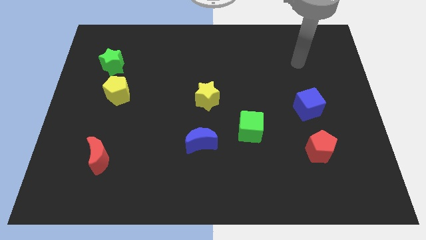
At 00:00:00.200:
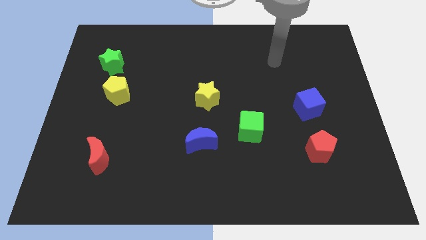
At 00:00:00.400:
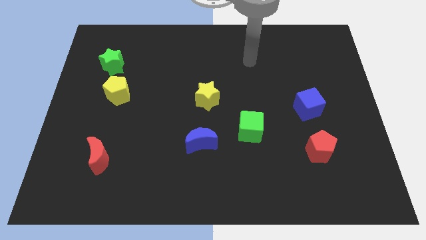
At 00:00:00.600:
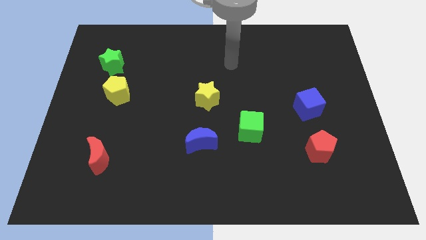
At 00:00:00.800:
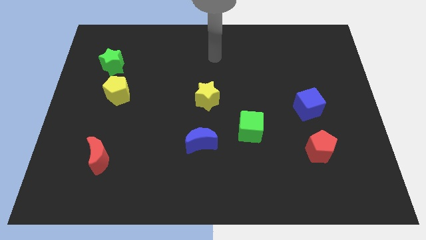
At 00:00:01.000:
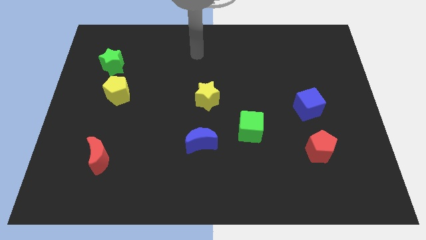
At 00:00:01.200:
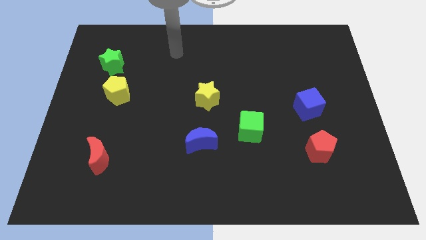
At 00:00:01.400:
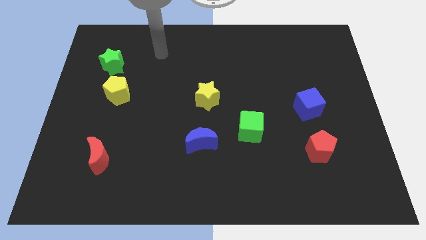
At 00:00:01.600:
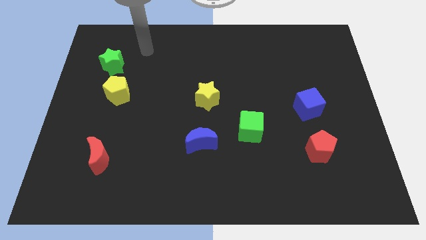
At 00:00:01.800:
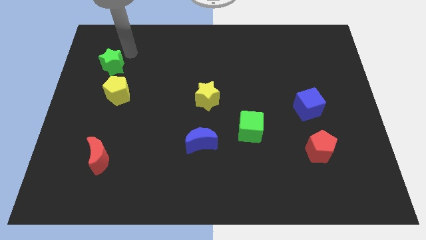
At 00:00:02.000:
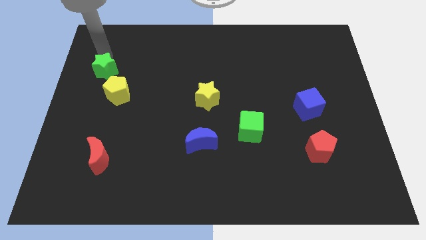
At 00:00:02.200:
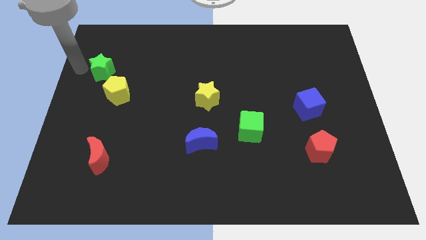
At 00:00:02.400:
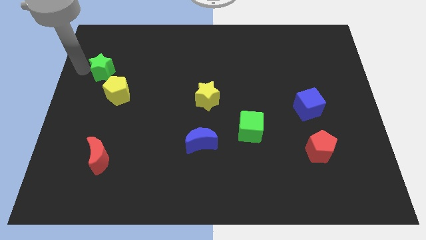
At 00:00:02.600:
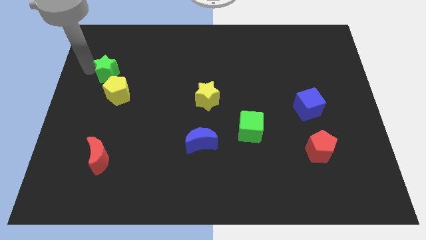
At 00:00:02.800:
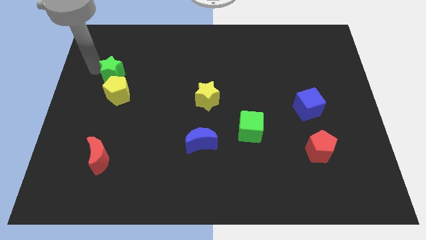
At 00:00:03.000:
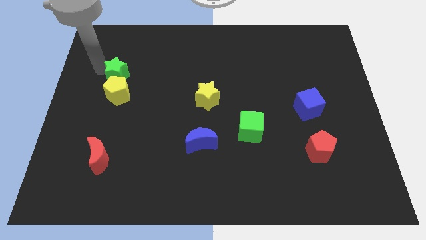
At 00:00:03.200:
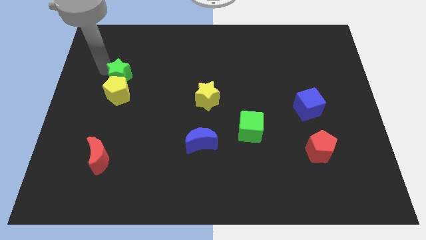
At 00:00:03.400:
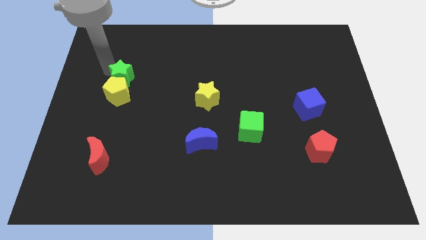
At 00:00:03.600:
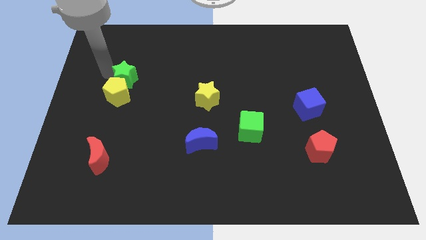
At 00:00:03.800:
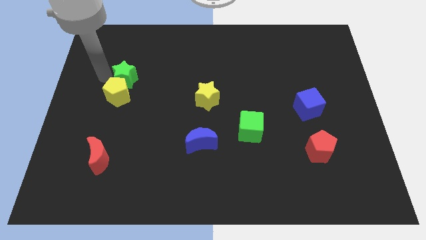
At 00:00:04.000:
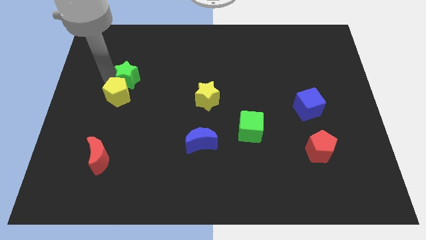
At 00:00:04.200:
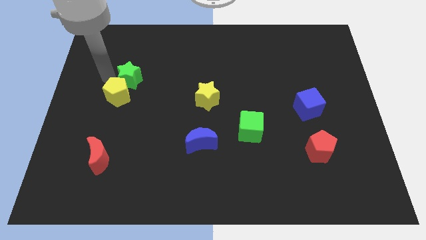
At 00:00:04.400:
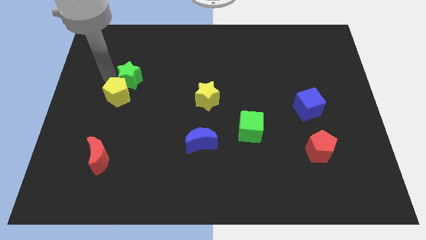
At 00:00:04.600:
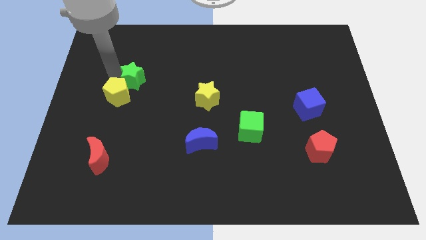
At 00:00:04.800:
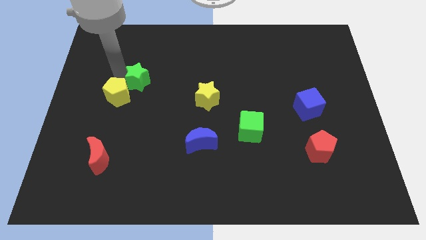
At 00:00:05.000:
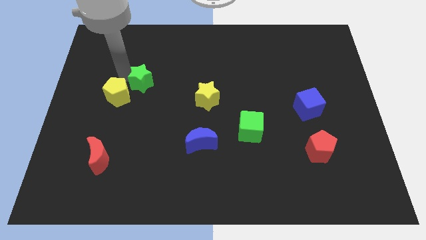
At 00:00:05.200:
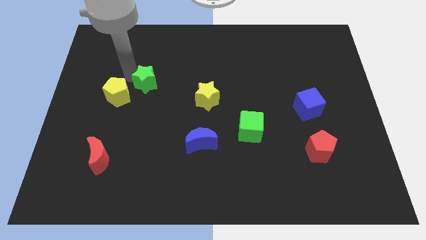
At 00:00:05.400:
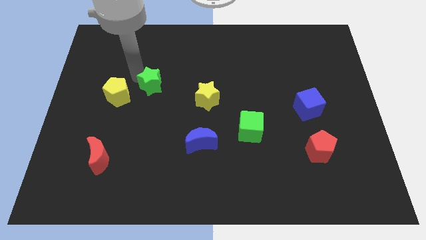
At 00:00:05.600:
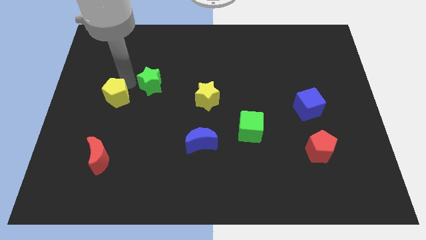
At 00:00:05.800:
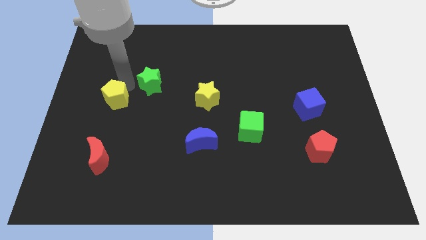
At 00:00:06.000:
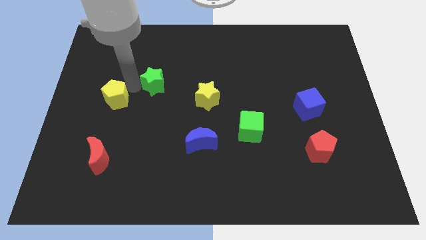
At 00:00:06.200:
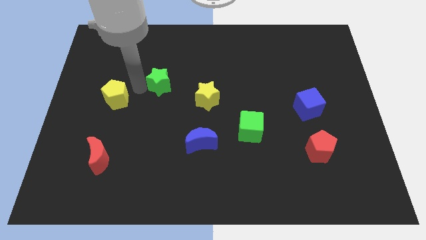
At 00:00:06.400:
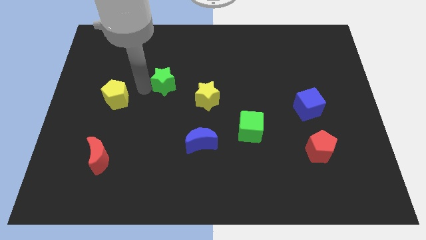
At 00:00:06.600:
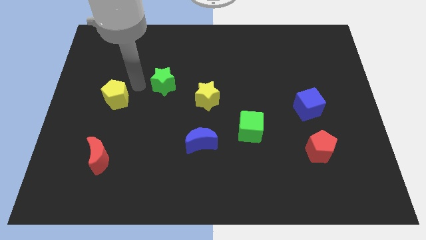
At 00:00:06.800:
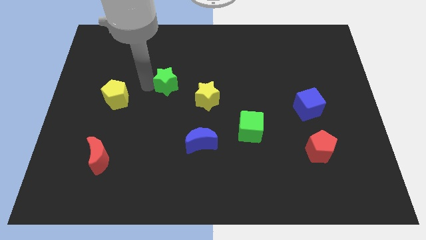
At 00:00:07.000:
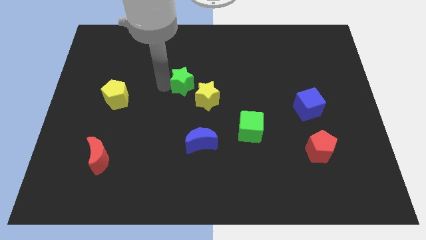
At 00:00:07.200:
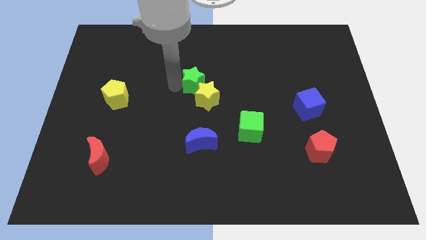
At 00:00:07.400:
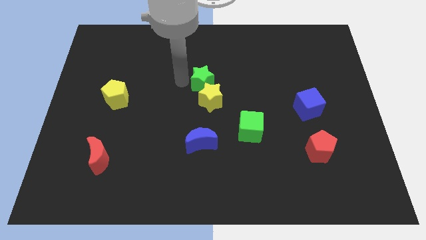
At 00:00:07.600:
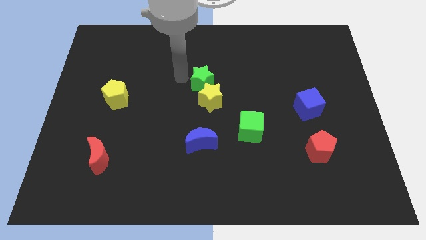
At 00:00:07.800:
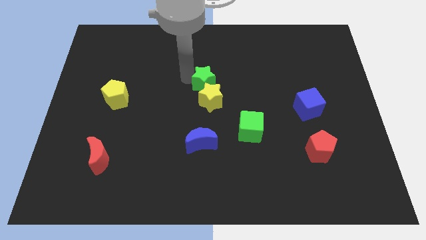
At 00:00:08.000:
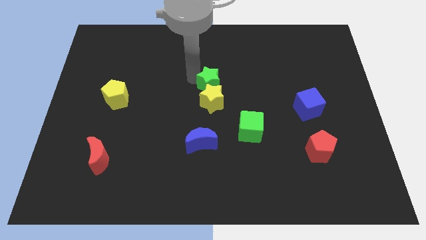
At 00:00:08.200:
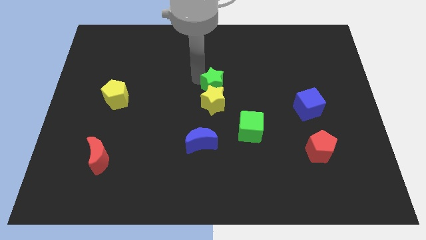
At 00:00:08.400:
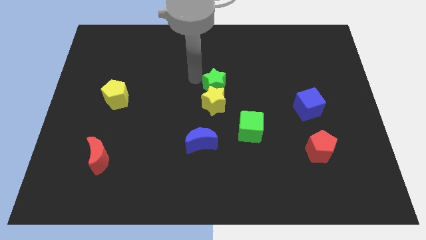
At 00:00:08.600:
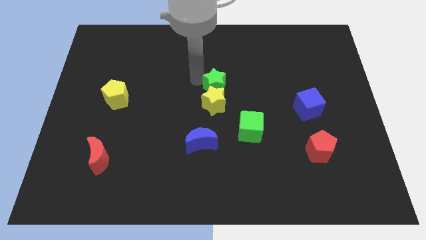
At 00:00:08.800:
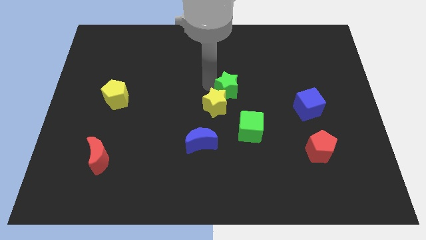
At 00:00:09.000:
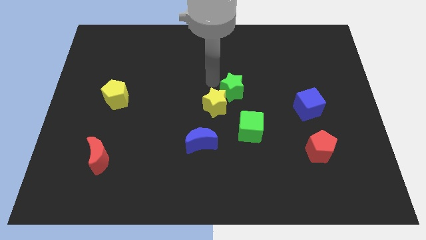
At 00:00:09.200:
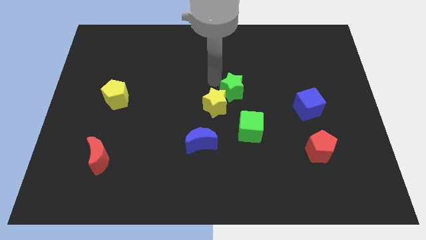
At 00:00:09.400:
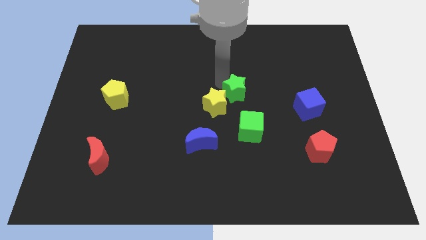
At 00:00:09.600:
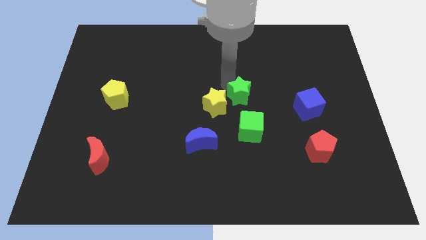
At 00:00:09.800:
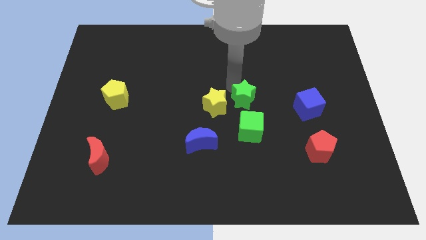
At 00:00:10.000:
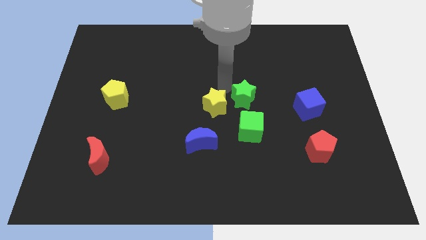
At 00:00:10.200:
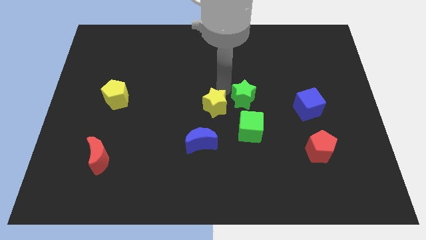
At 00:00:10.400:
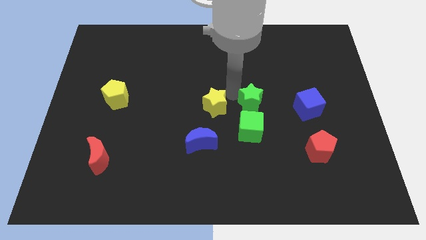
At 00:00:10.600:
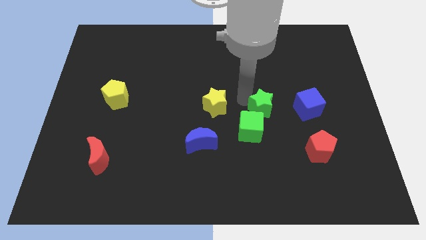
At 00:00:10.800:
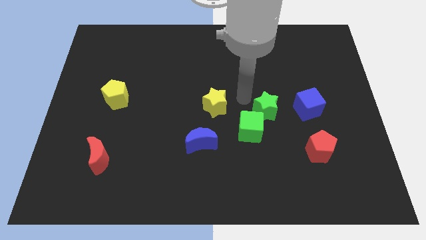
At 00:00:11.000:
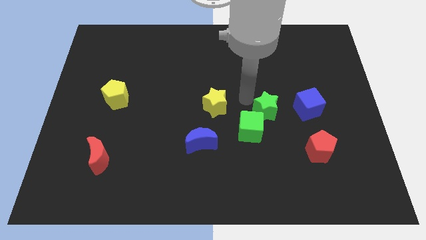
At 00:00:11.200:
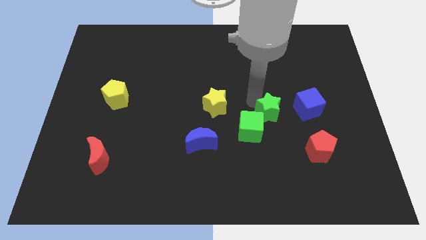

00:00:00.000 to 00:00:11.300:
slide the green star right of the green cube

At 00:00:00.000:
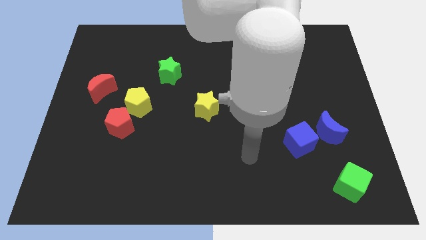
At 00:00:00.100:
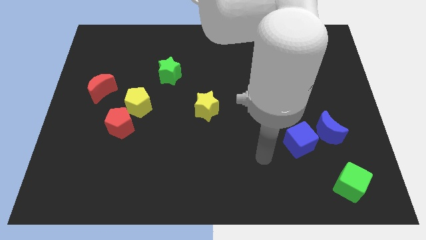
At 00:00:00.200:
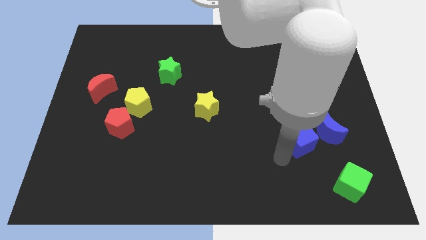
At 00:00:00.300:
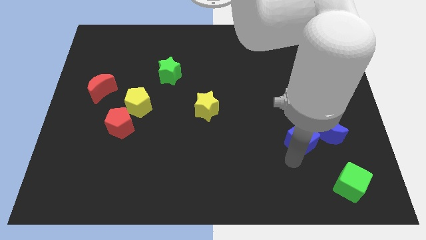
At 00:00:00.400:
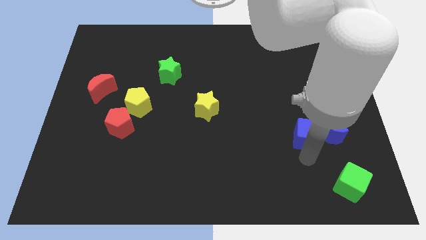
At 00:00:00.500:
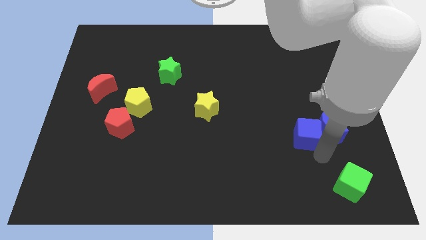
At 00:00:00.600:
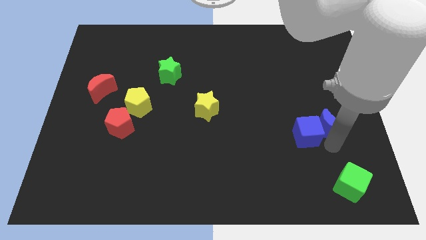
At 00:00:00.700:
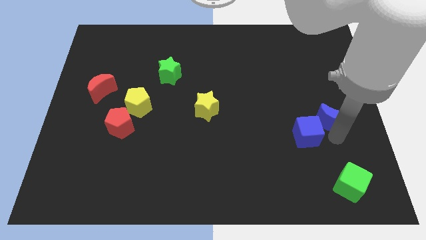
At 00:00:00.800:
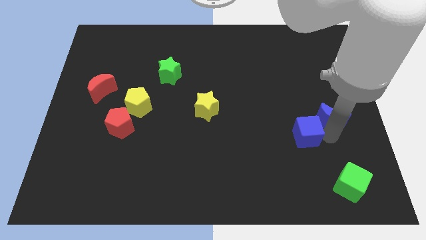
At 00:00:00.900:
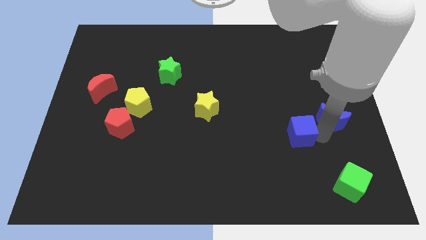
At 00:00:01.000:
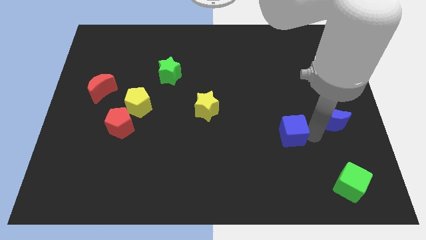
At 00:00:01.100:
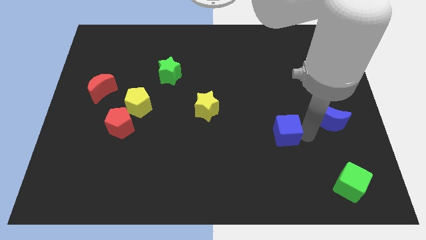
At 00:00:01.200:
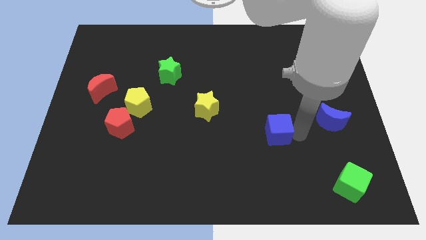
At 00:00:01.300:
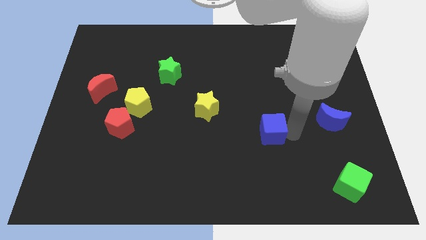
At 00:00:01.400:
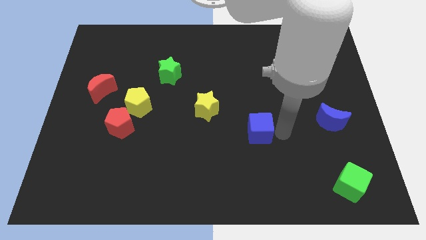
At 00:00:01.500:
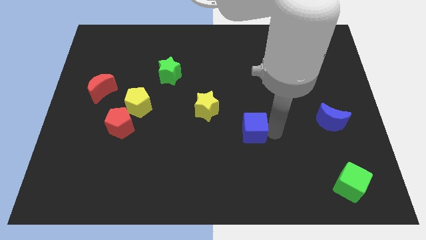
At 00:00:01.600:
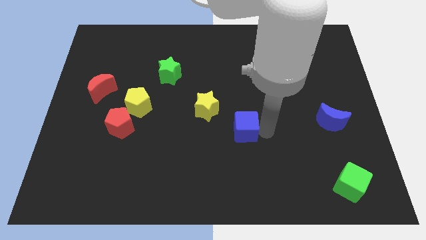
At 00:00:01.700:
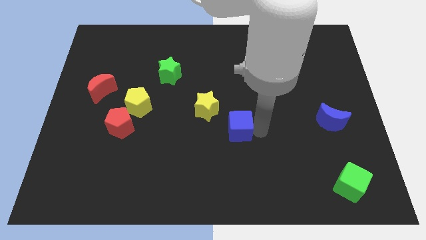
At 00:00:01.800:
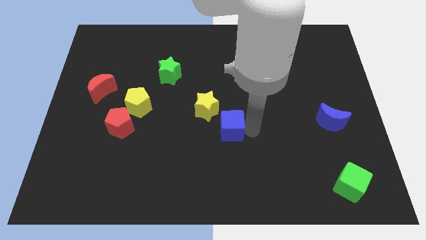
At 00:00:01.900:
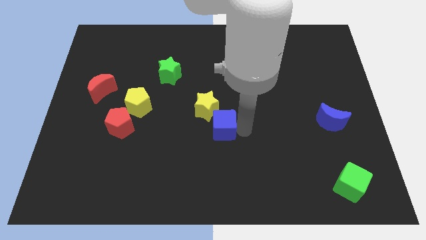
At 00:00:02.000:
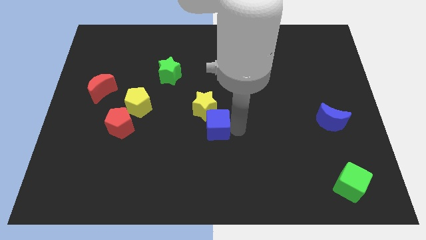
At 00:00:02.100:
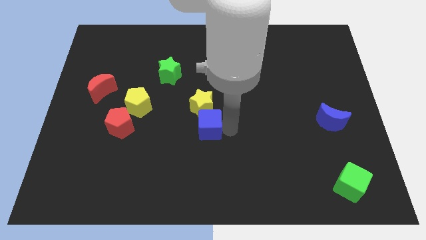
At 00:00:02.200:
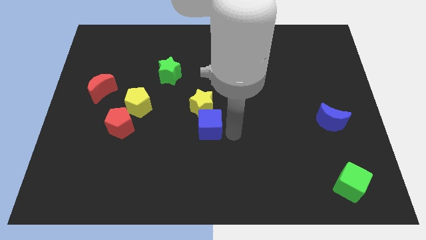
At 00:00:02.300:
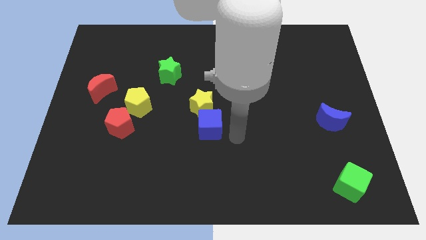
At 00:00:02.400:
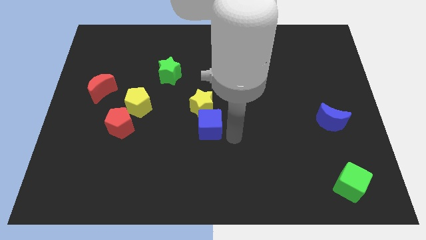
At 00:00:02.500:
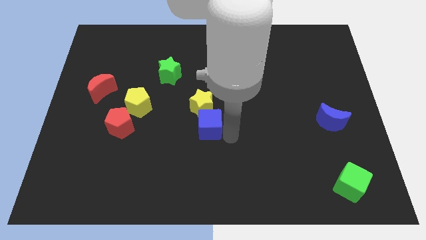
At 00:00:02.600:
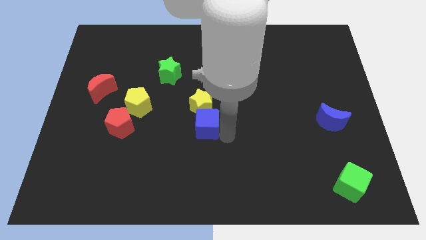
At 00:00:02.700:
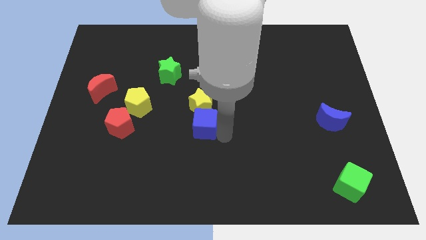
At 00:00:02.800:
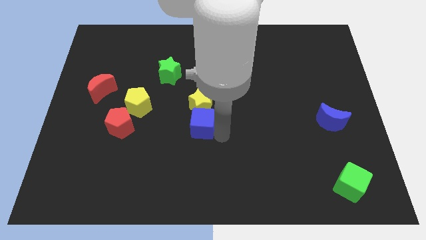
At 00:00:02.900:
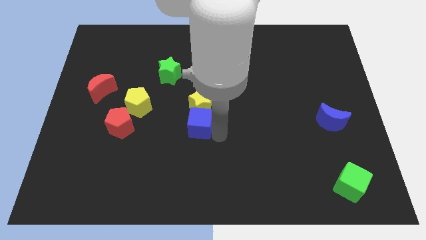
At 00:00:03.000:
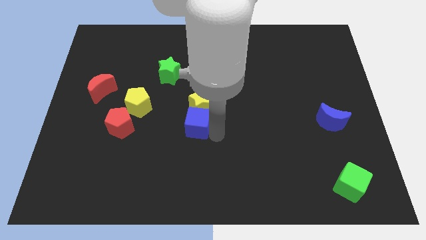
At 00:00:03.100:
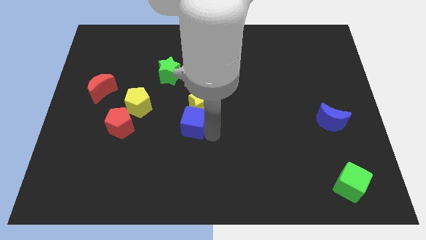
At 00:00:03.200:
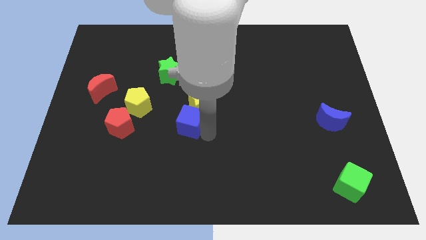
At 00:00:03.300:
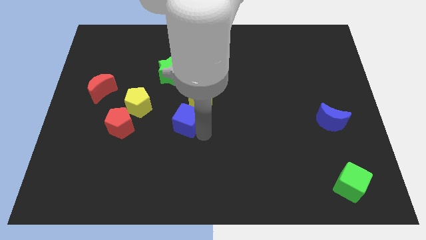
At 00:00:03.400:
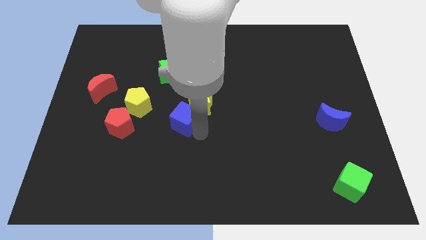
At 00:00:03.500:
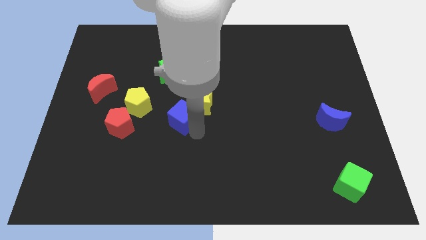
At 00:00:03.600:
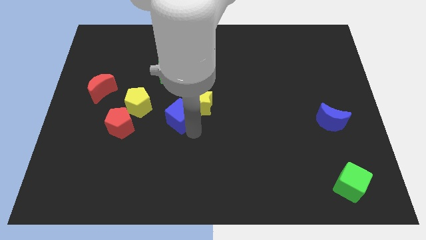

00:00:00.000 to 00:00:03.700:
slide the blue cube to the bottom side of the green star
